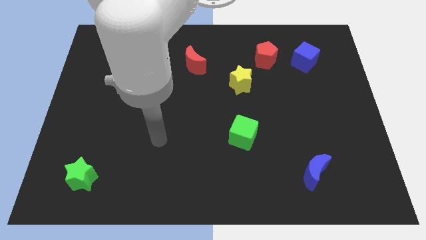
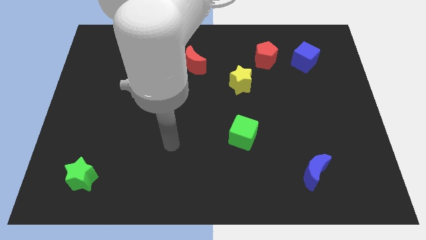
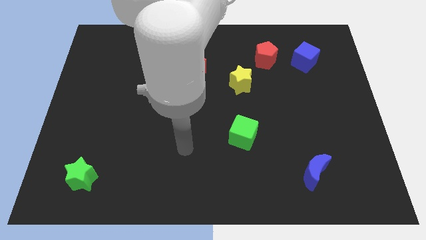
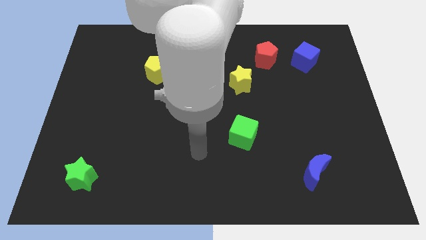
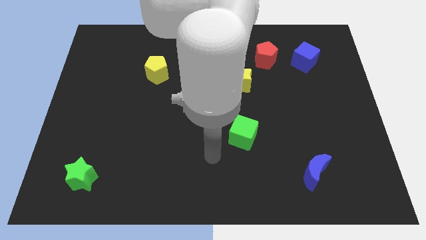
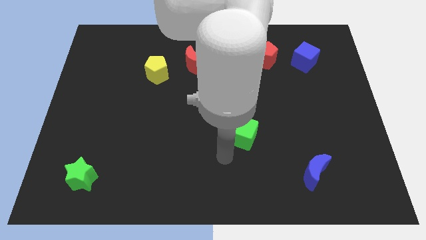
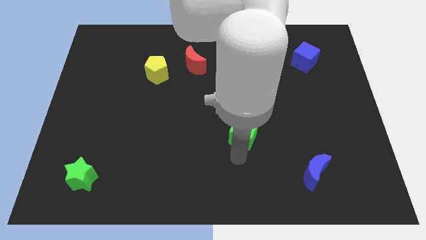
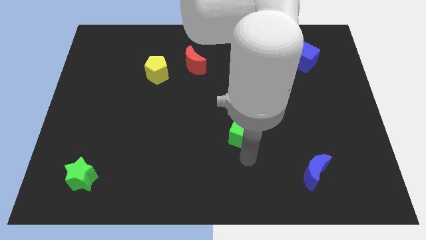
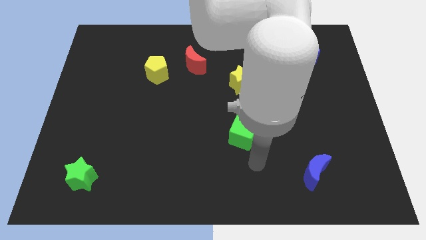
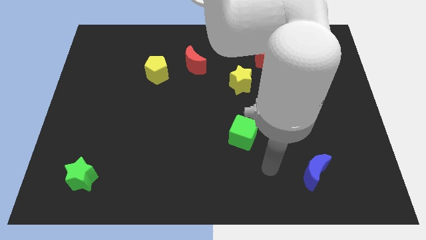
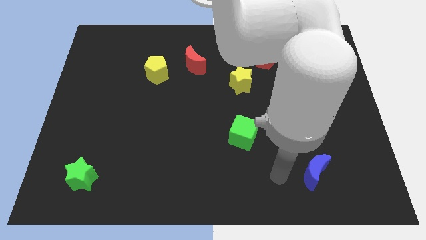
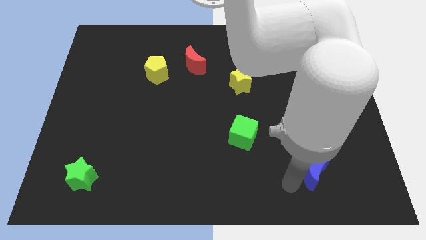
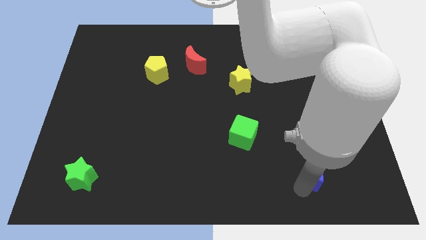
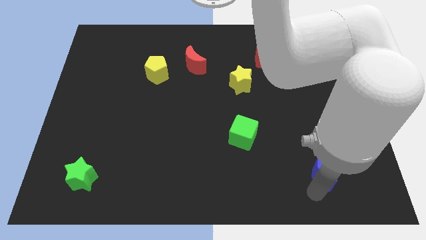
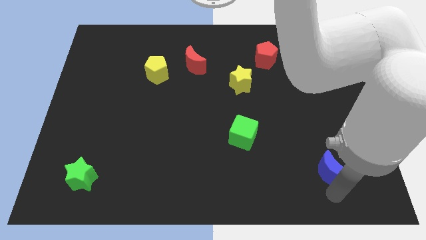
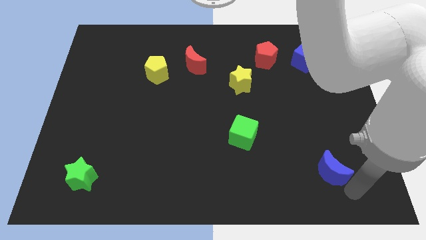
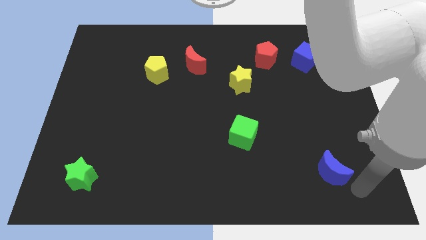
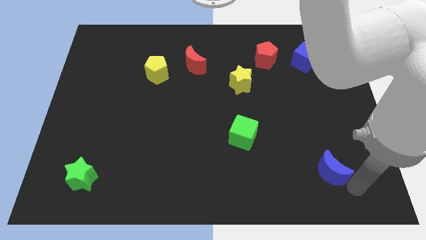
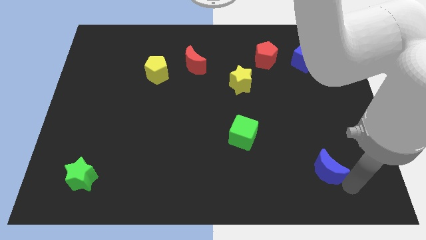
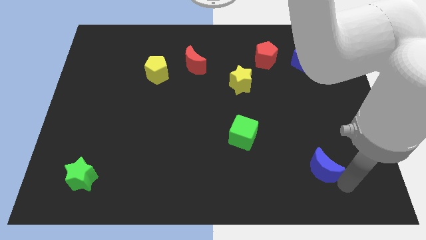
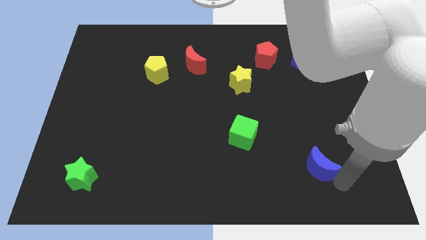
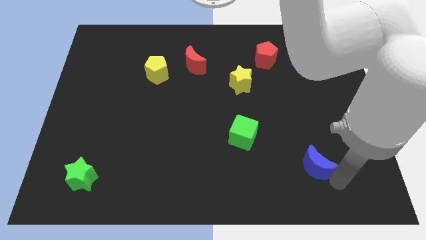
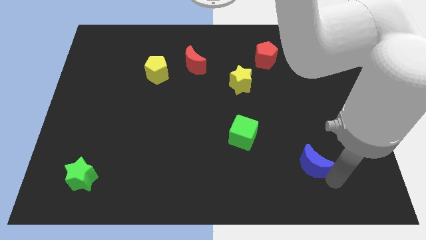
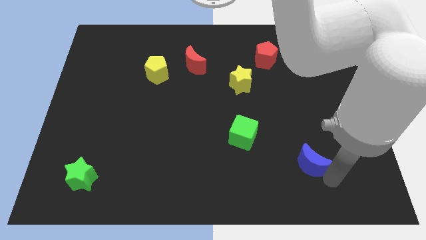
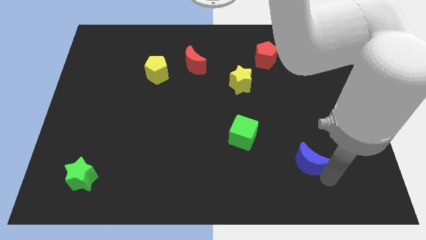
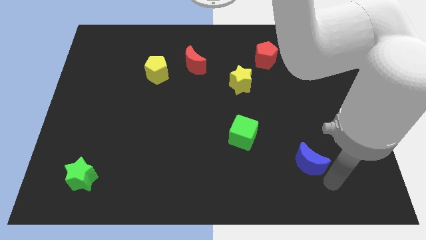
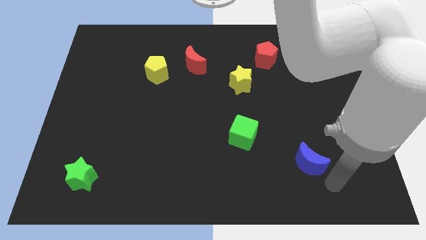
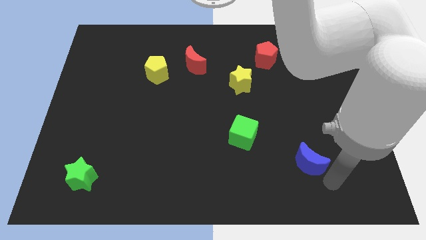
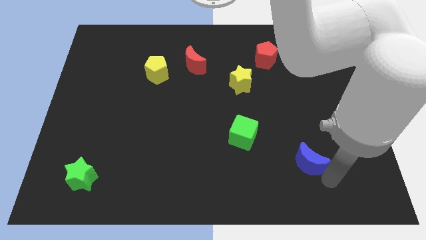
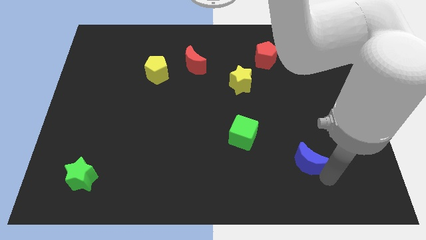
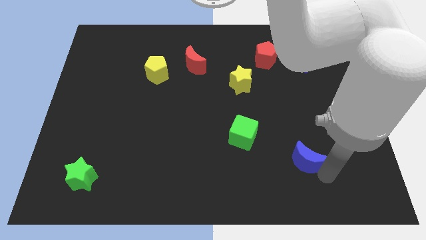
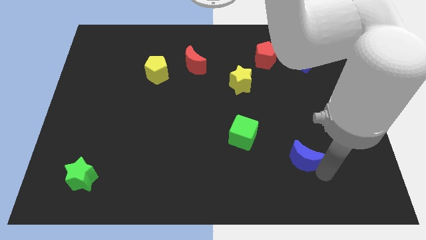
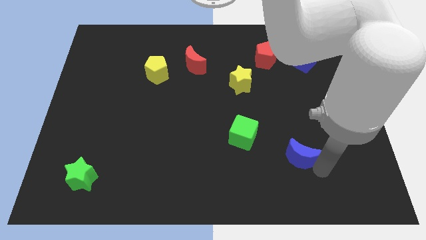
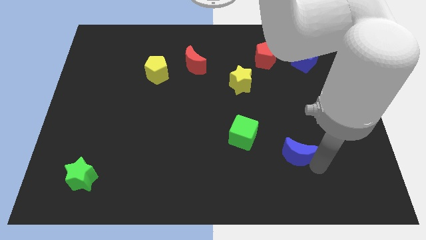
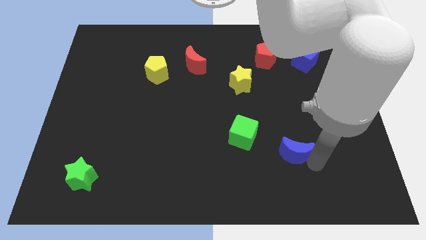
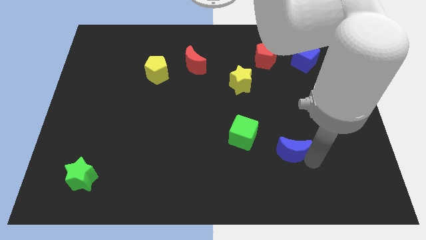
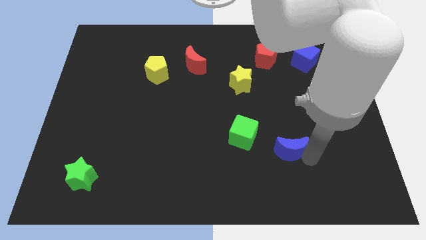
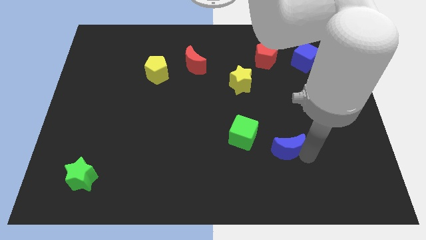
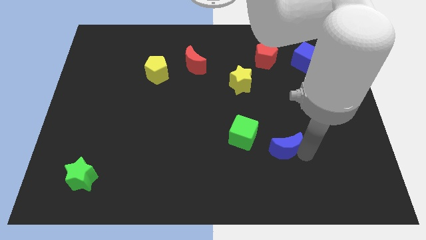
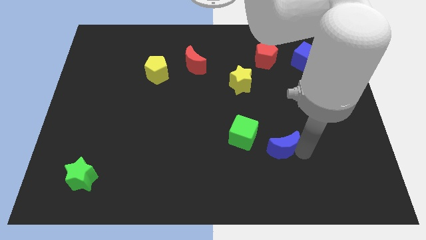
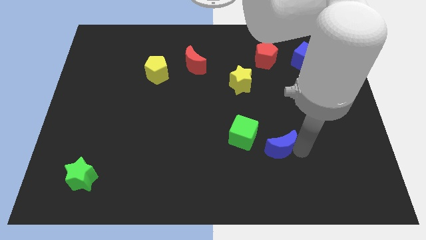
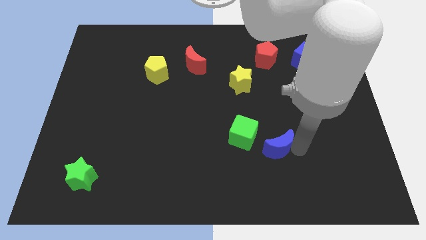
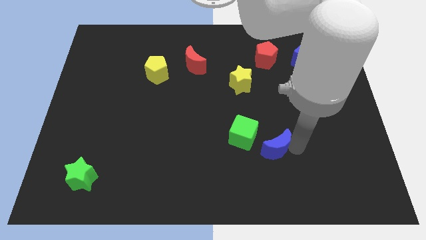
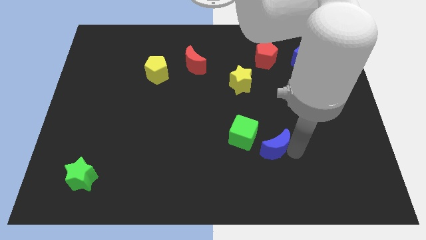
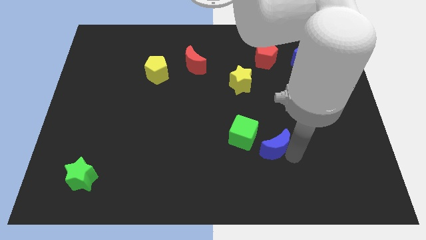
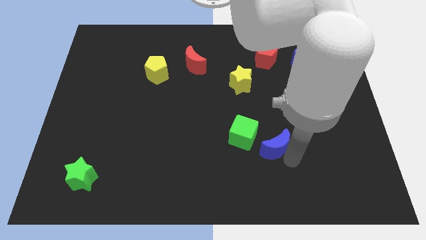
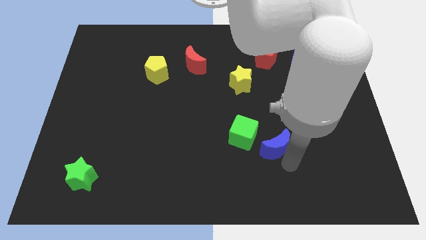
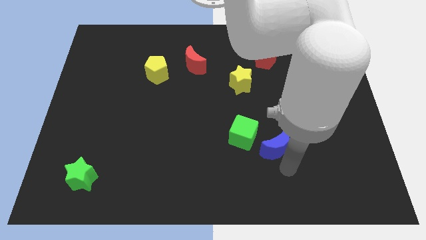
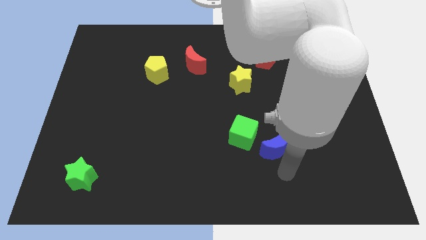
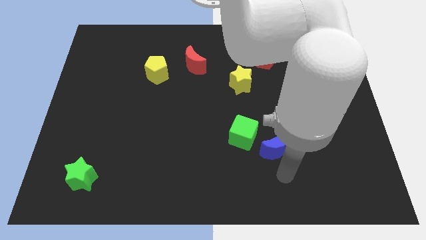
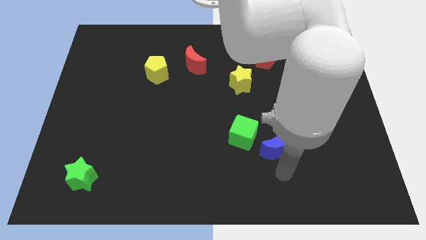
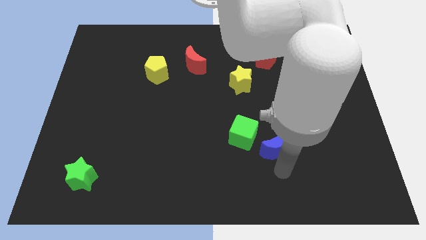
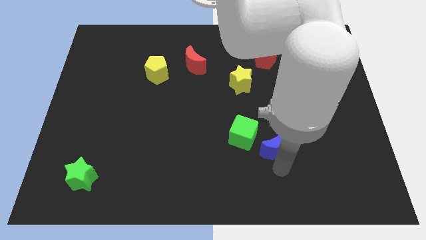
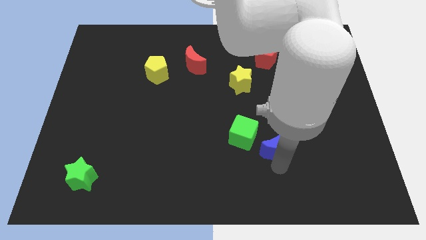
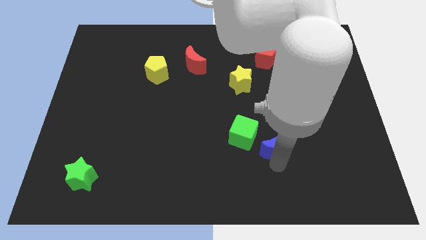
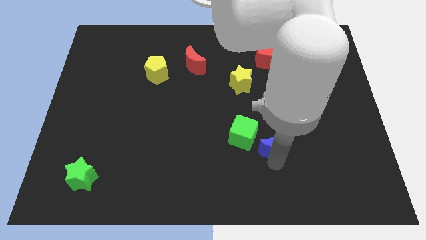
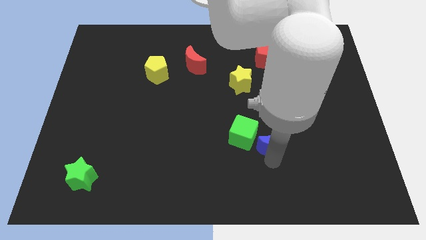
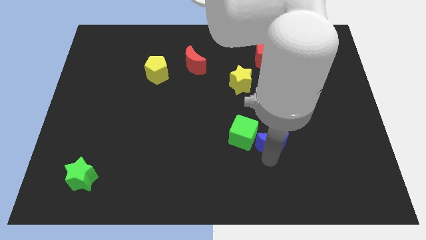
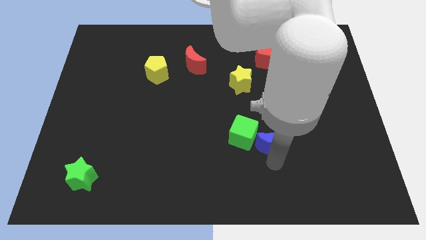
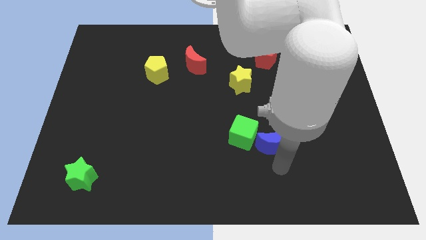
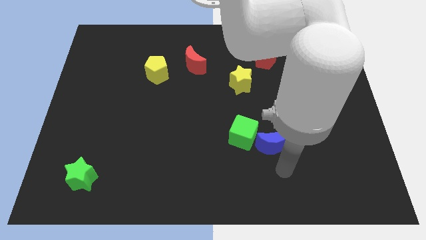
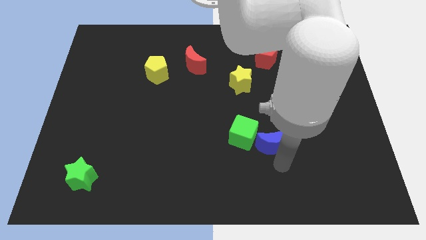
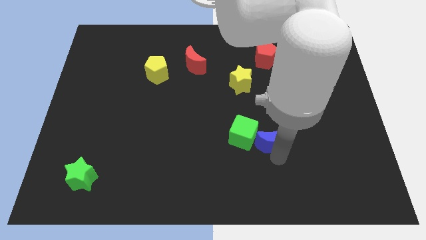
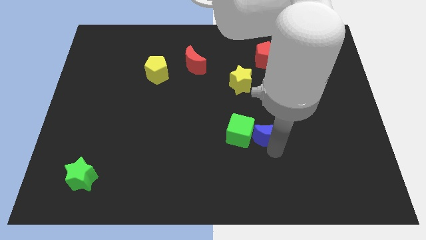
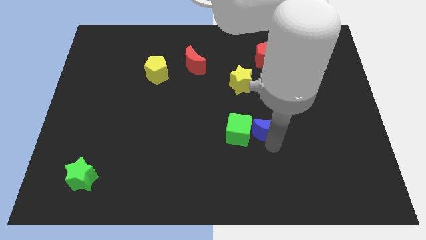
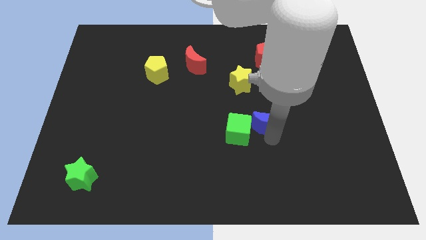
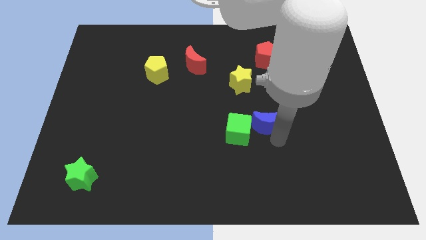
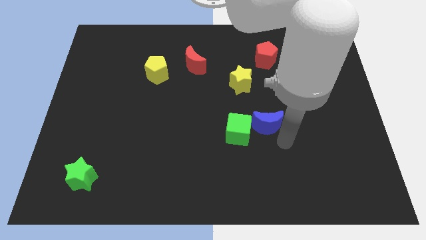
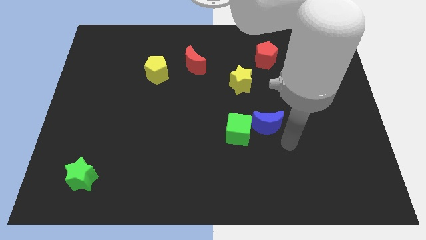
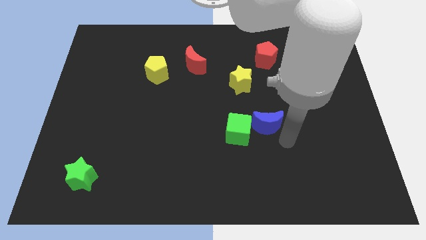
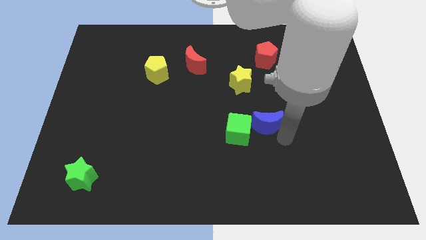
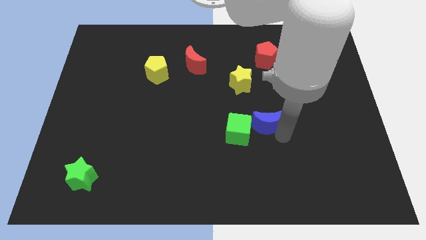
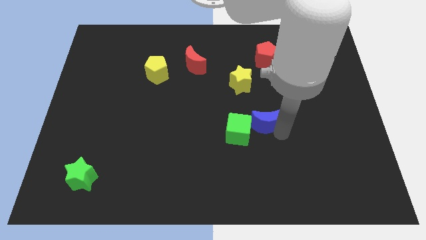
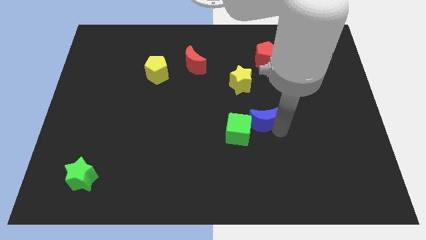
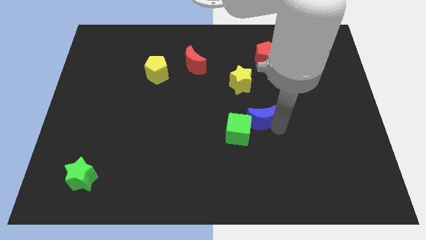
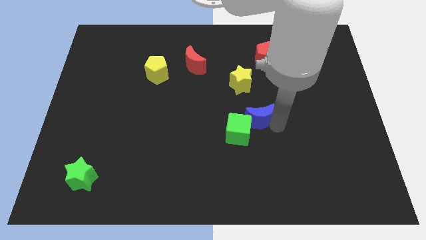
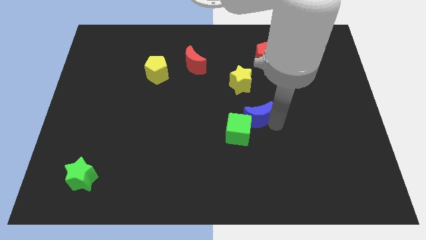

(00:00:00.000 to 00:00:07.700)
push the blue moon above the green cube
